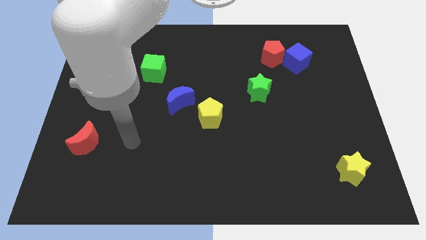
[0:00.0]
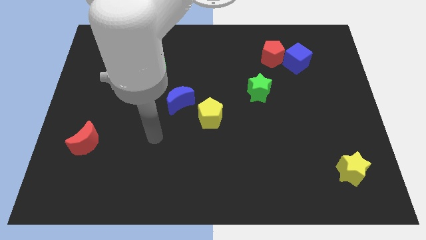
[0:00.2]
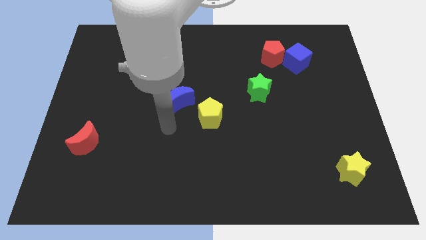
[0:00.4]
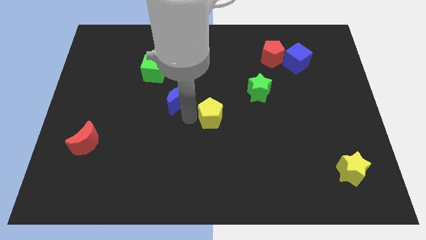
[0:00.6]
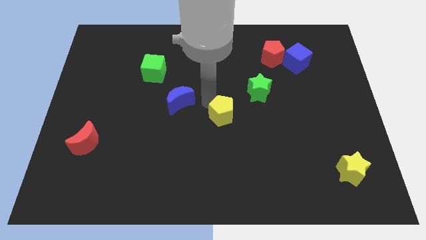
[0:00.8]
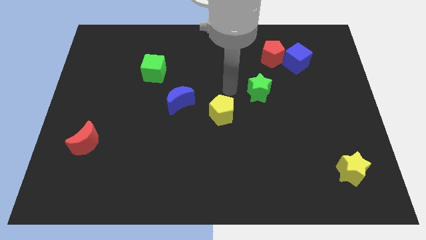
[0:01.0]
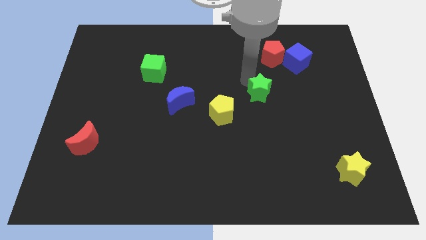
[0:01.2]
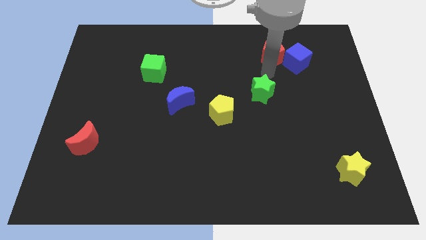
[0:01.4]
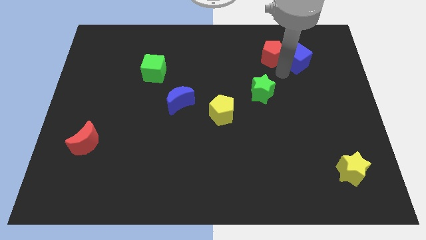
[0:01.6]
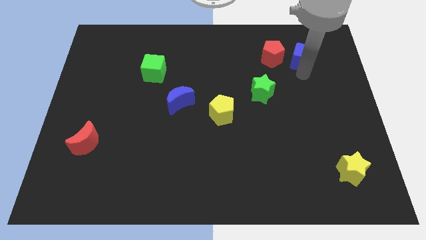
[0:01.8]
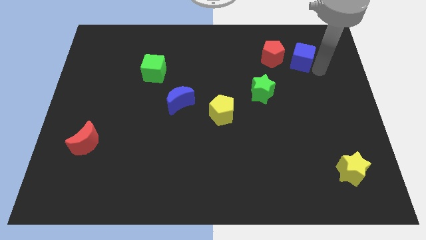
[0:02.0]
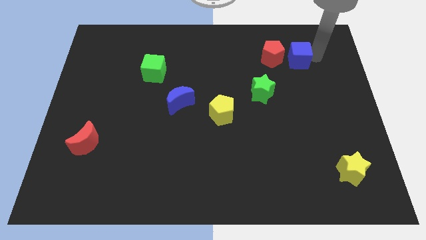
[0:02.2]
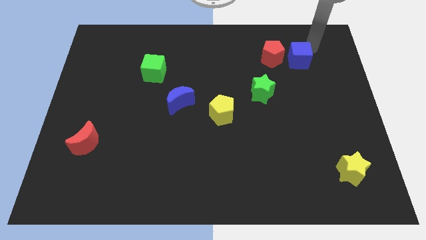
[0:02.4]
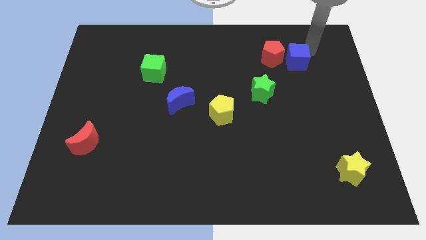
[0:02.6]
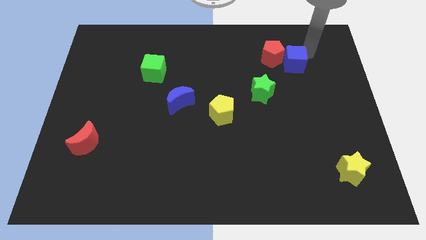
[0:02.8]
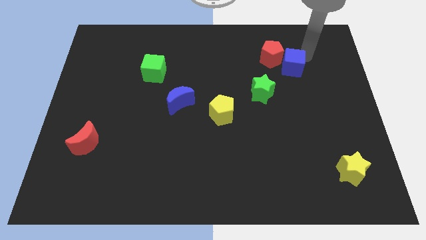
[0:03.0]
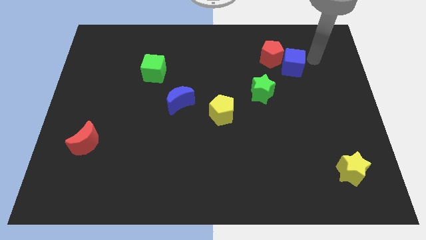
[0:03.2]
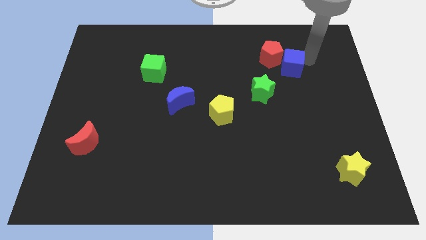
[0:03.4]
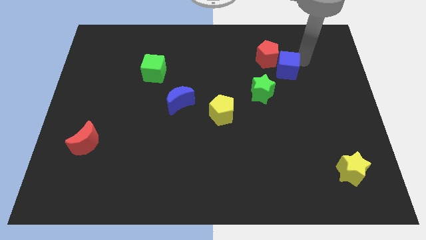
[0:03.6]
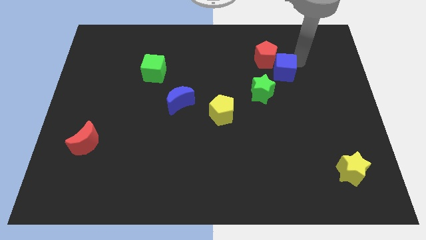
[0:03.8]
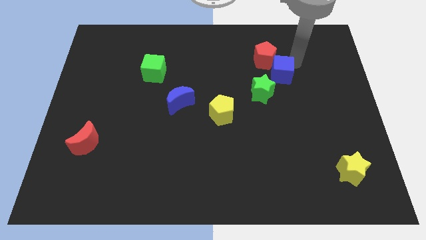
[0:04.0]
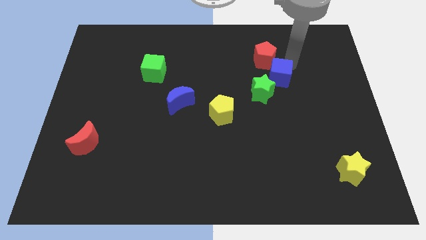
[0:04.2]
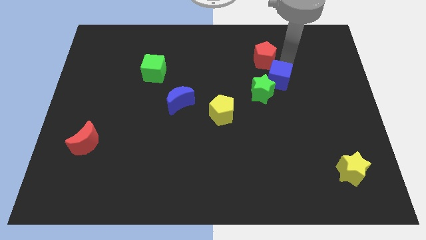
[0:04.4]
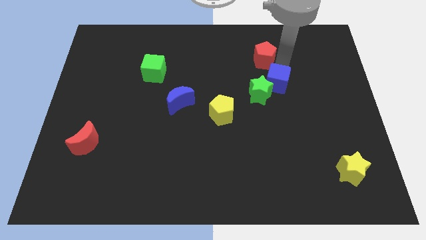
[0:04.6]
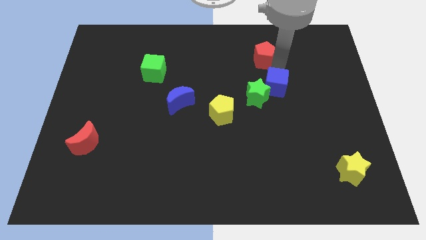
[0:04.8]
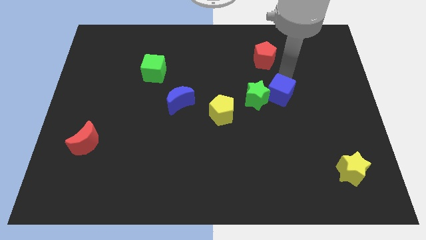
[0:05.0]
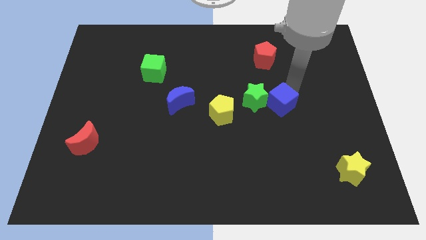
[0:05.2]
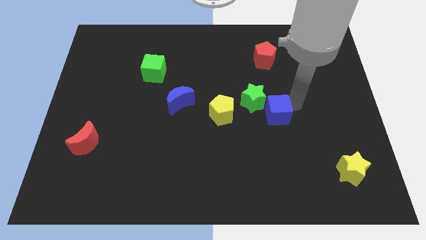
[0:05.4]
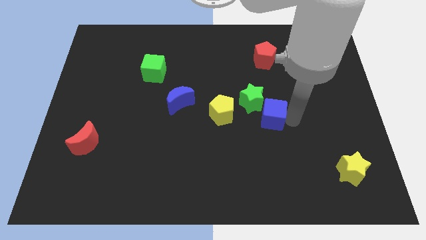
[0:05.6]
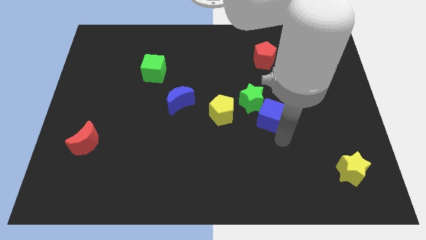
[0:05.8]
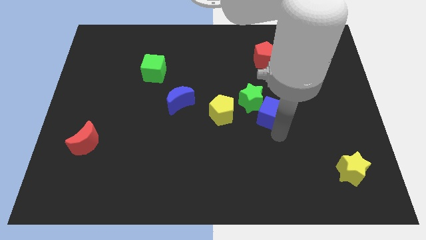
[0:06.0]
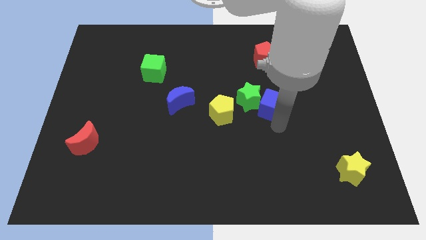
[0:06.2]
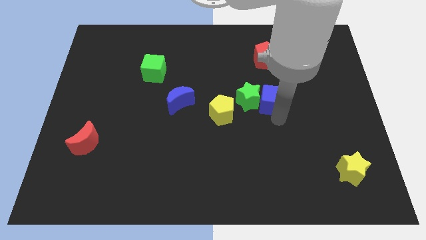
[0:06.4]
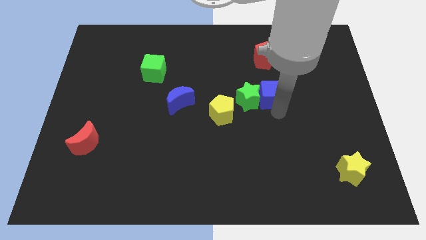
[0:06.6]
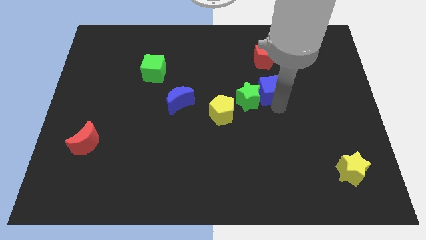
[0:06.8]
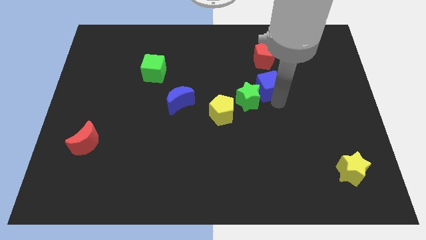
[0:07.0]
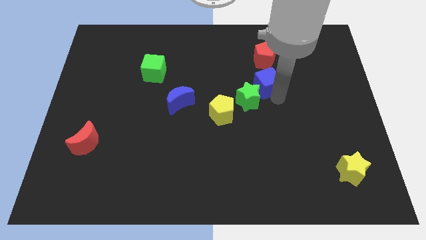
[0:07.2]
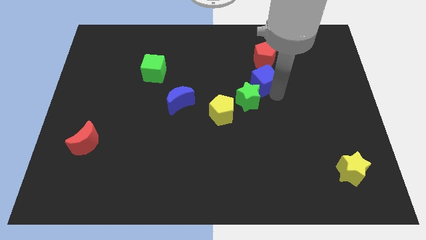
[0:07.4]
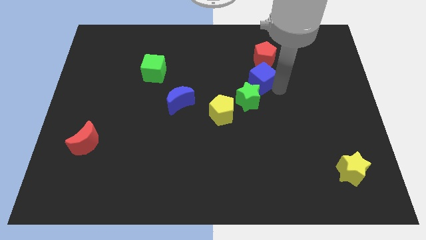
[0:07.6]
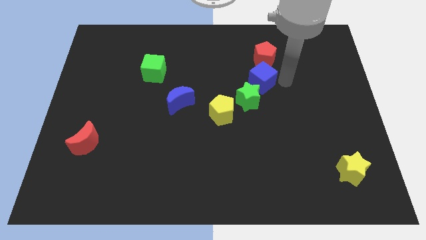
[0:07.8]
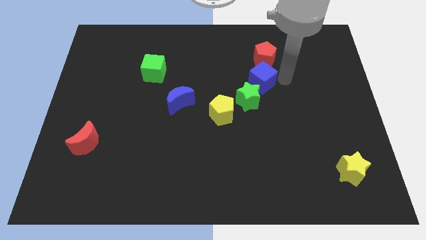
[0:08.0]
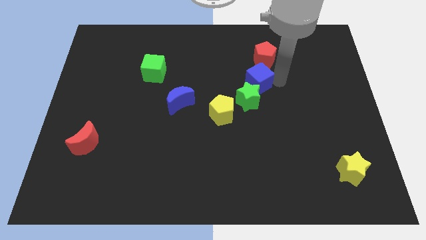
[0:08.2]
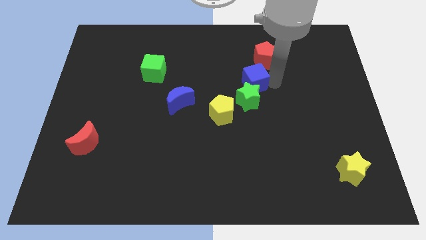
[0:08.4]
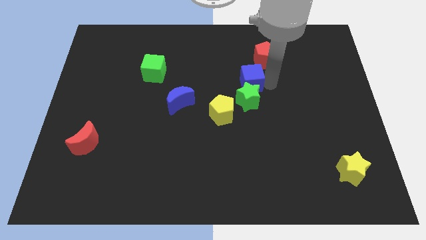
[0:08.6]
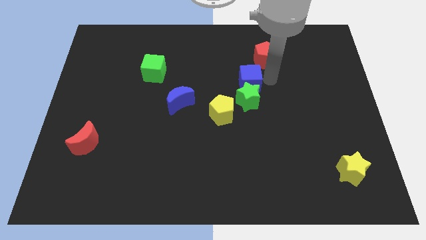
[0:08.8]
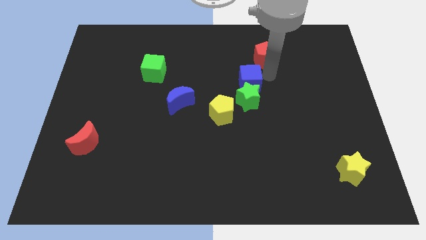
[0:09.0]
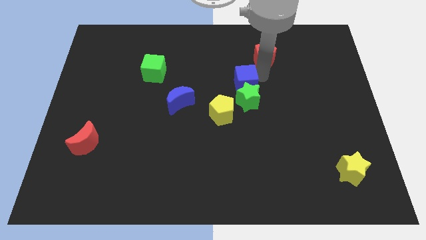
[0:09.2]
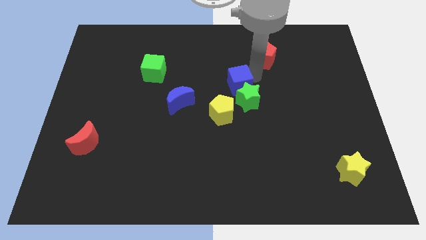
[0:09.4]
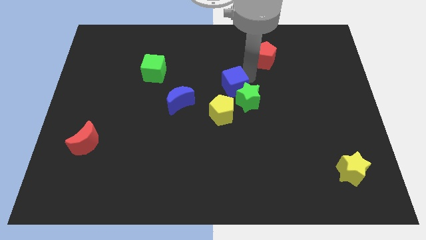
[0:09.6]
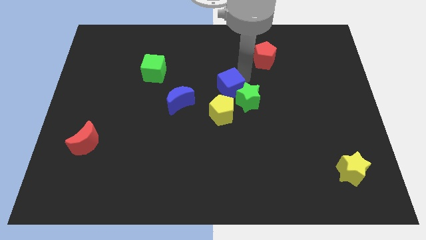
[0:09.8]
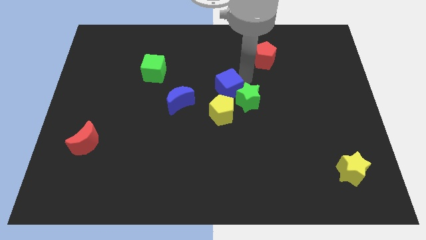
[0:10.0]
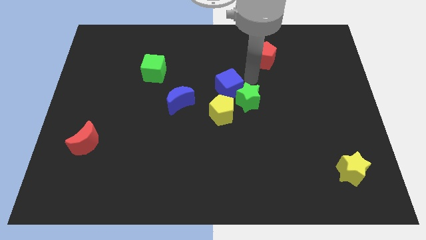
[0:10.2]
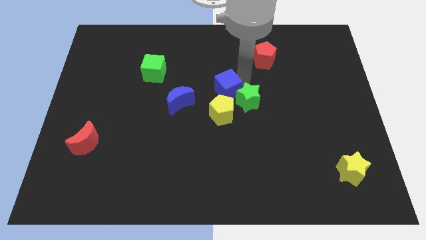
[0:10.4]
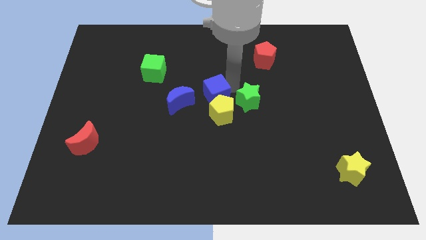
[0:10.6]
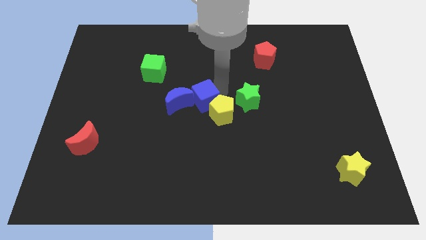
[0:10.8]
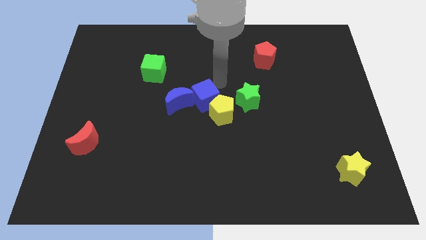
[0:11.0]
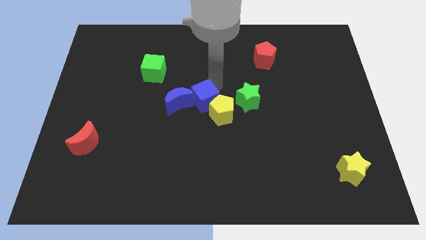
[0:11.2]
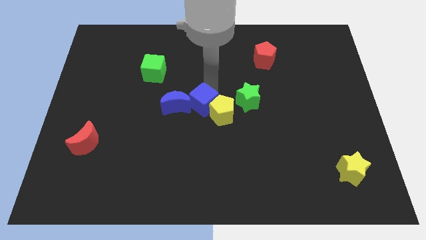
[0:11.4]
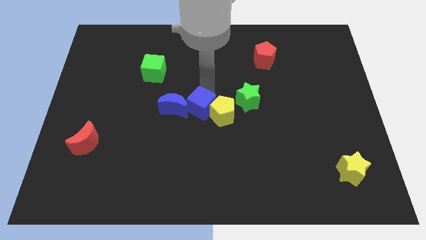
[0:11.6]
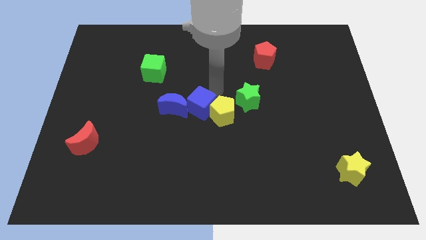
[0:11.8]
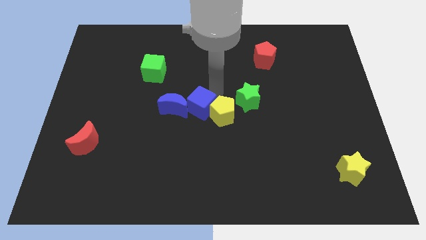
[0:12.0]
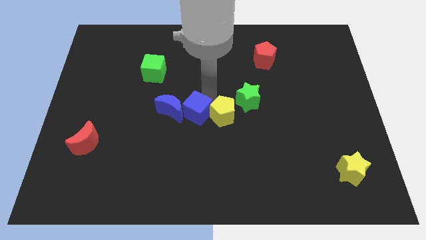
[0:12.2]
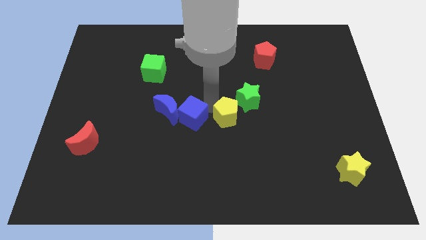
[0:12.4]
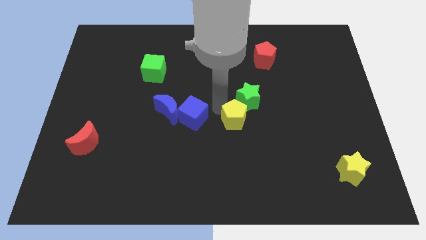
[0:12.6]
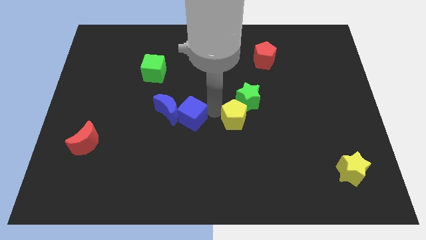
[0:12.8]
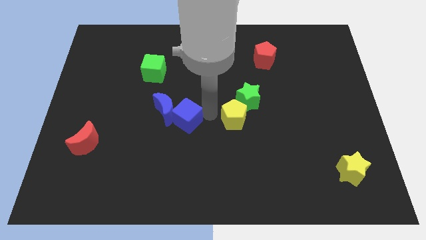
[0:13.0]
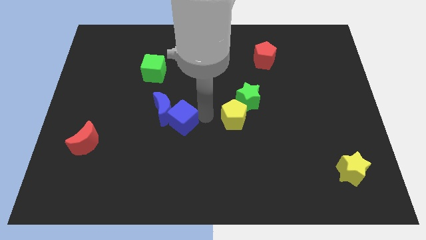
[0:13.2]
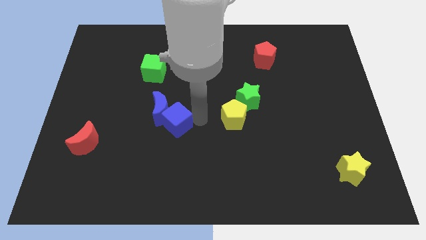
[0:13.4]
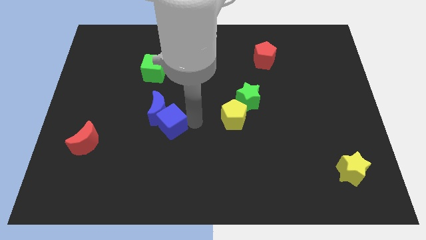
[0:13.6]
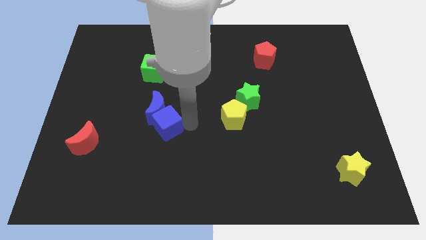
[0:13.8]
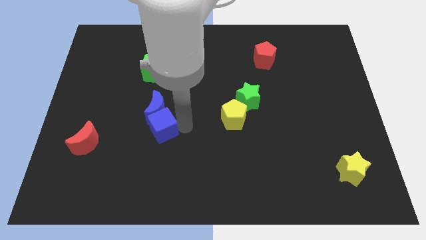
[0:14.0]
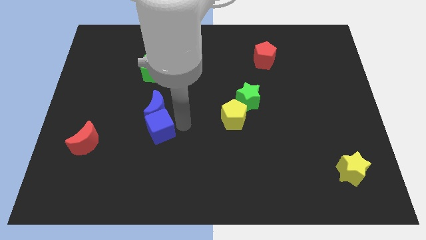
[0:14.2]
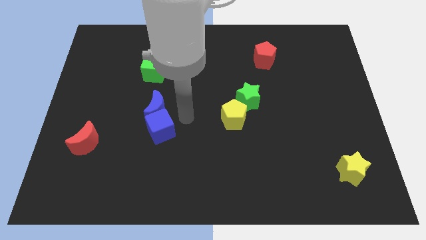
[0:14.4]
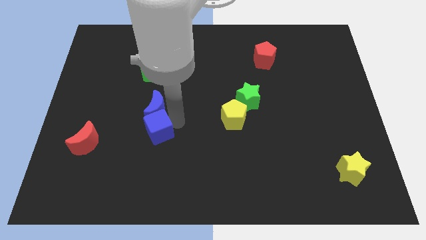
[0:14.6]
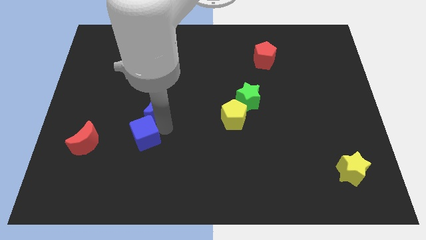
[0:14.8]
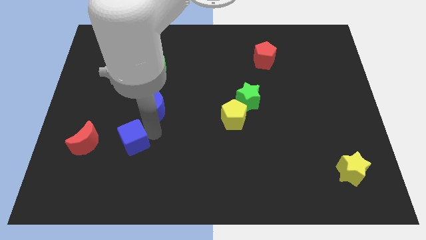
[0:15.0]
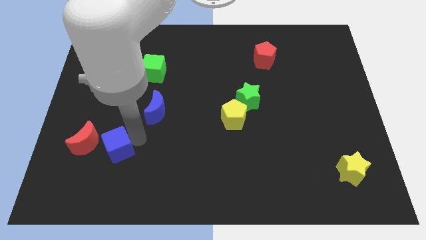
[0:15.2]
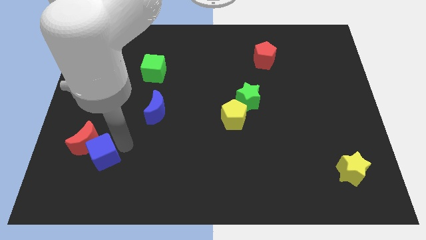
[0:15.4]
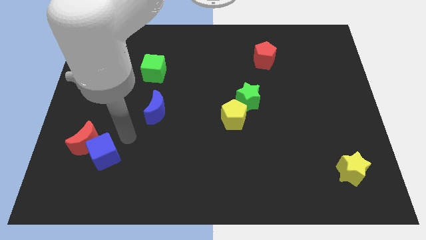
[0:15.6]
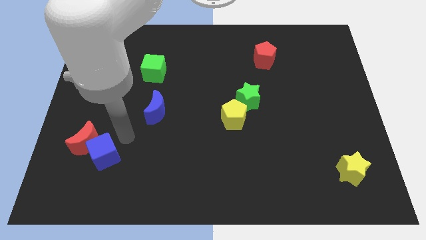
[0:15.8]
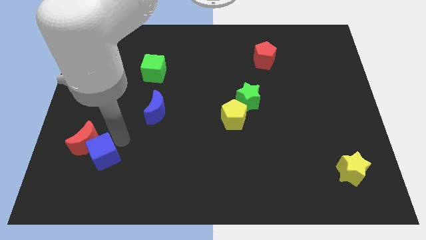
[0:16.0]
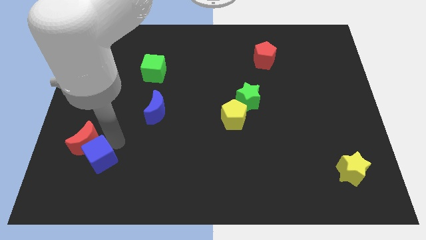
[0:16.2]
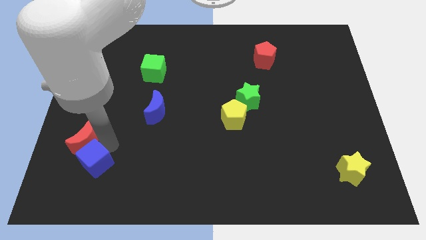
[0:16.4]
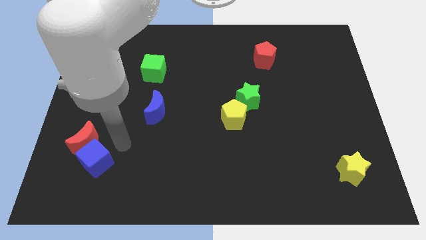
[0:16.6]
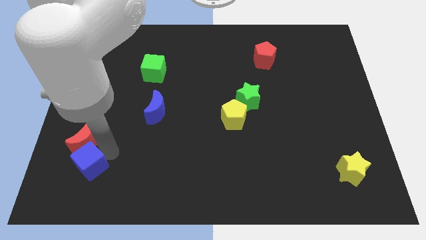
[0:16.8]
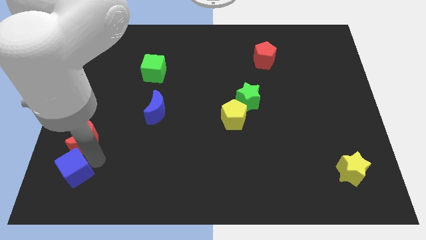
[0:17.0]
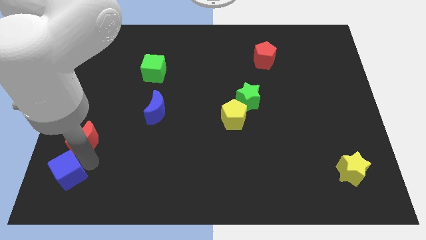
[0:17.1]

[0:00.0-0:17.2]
push the blue cube to the bottom left corner
